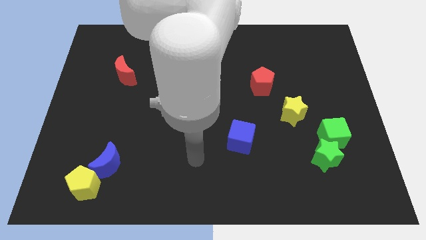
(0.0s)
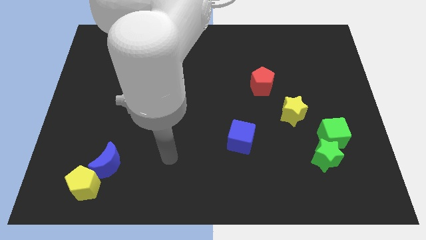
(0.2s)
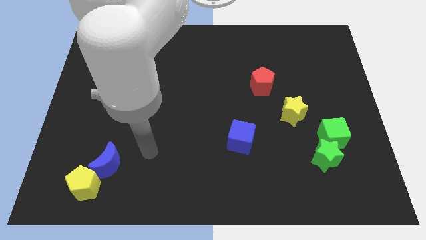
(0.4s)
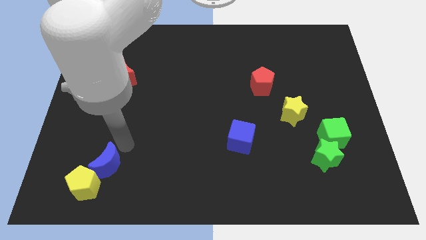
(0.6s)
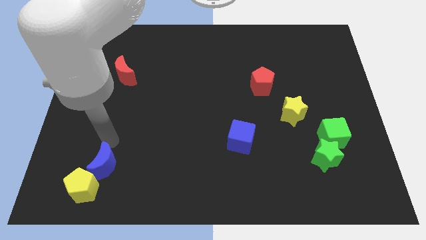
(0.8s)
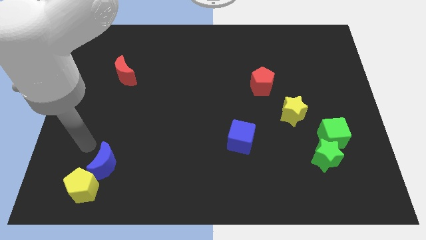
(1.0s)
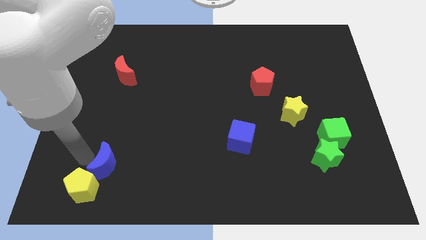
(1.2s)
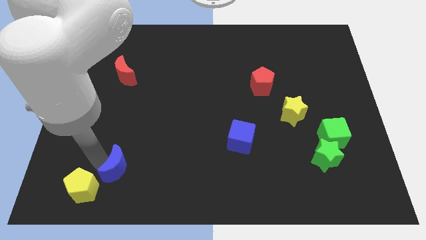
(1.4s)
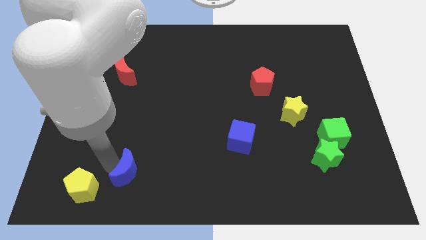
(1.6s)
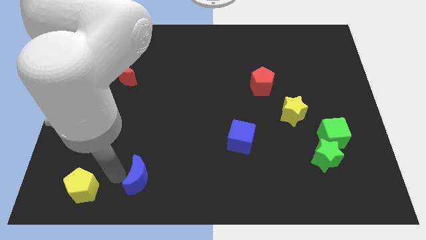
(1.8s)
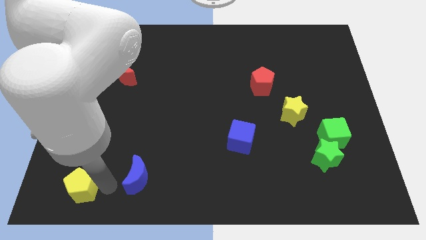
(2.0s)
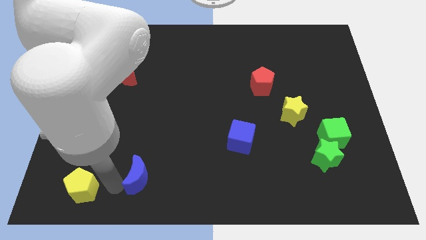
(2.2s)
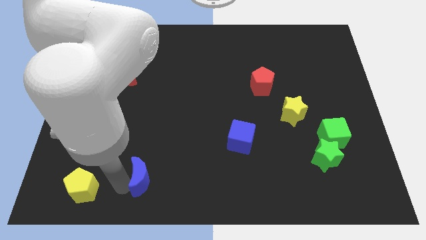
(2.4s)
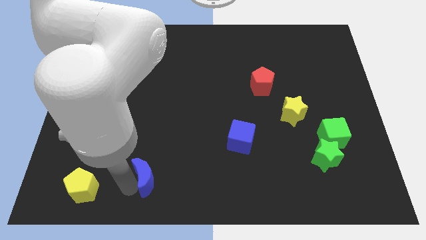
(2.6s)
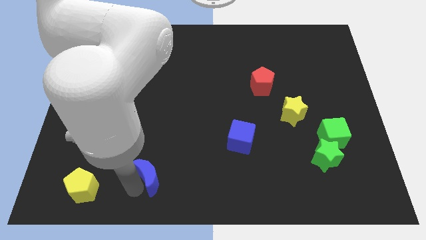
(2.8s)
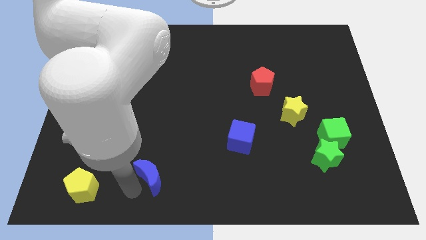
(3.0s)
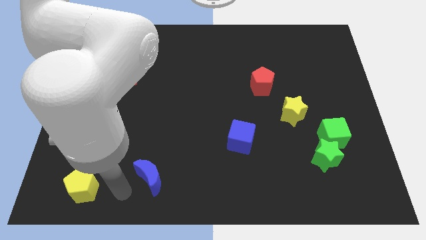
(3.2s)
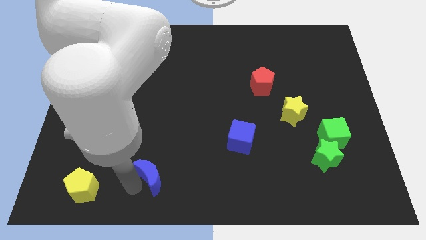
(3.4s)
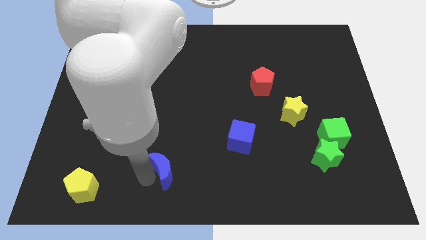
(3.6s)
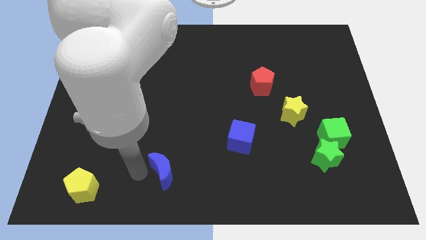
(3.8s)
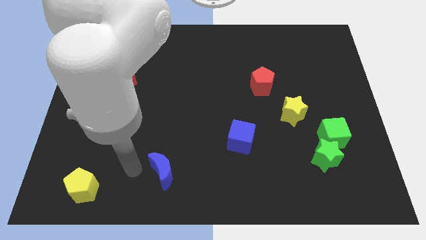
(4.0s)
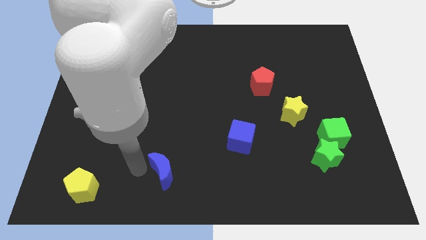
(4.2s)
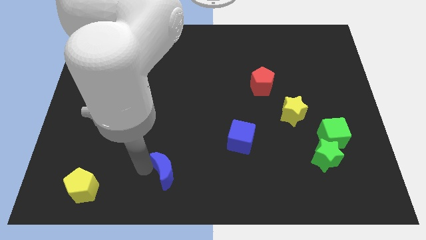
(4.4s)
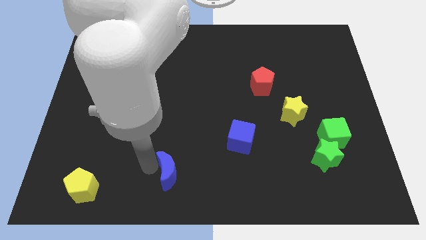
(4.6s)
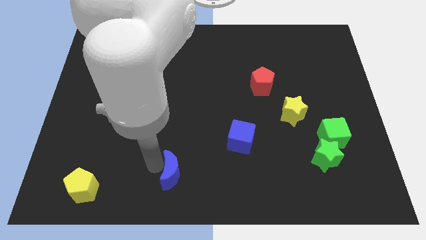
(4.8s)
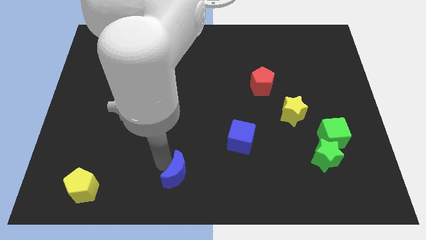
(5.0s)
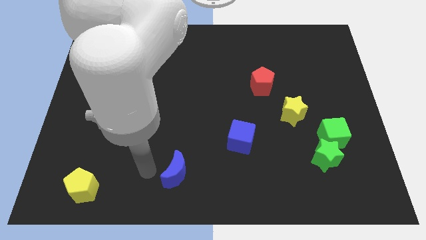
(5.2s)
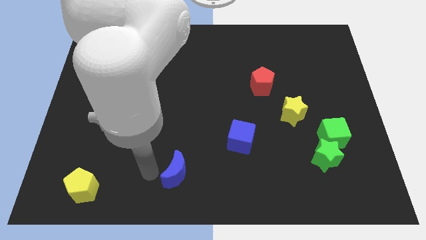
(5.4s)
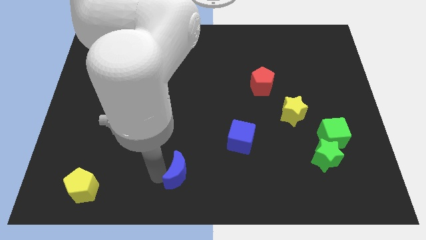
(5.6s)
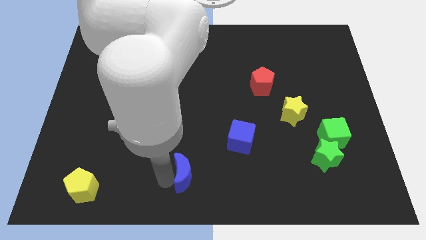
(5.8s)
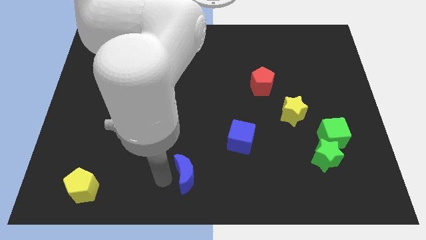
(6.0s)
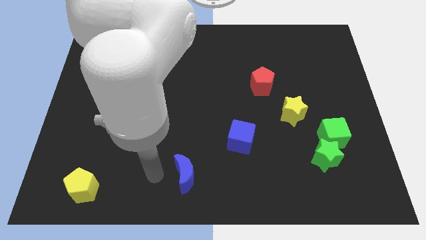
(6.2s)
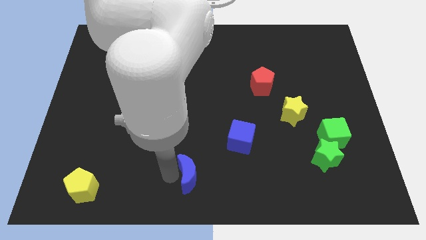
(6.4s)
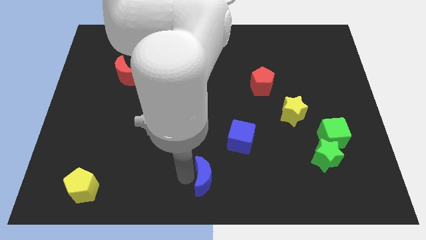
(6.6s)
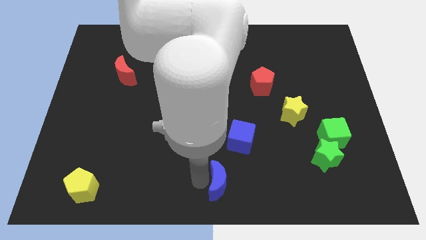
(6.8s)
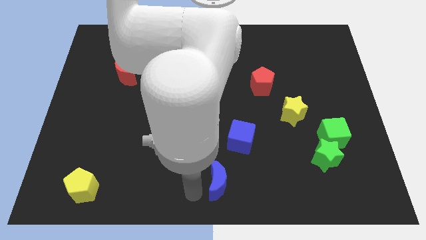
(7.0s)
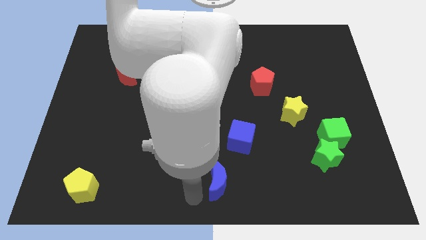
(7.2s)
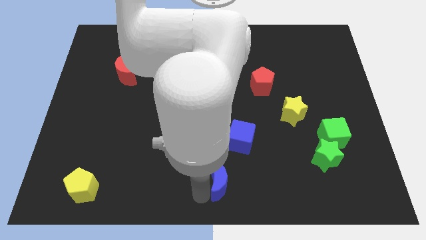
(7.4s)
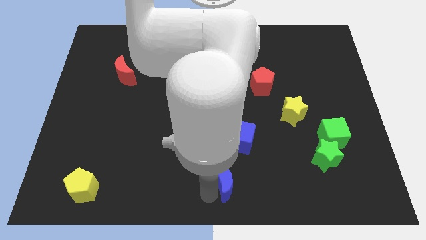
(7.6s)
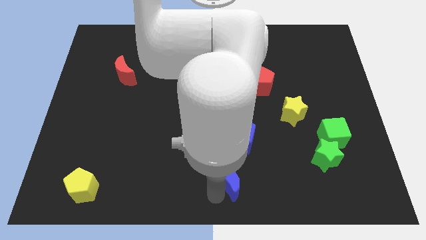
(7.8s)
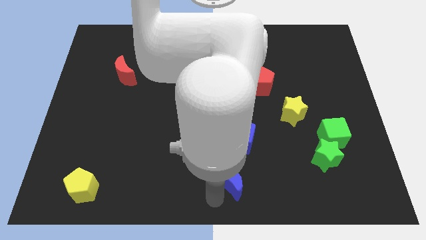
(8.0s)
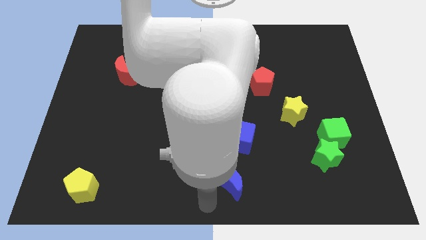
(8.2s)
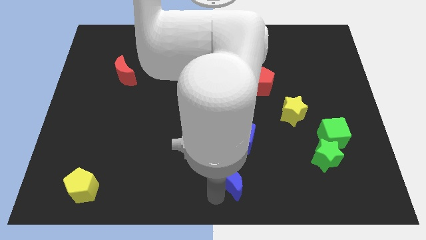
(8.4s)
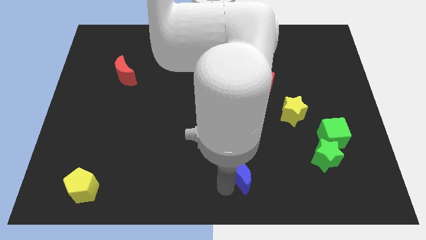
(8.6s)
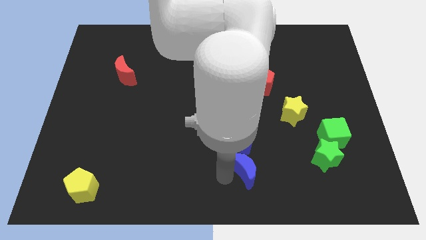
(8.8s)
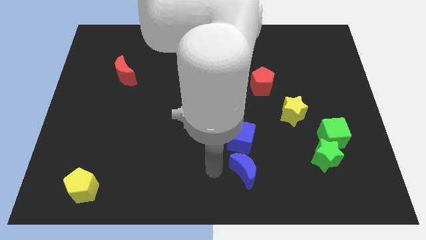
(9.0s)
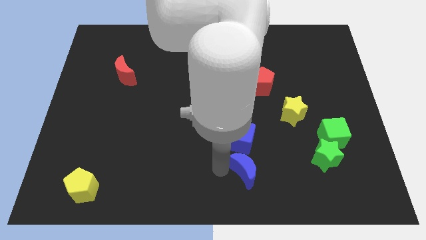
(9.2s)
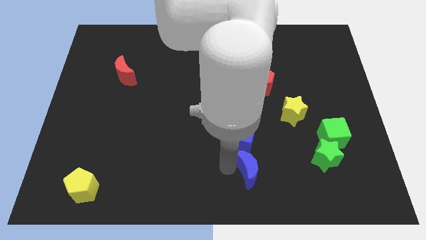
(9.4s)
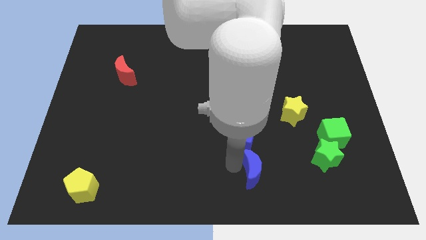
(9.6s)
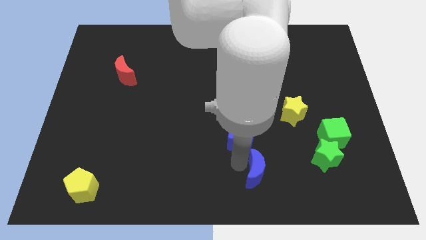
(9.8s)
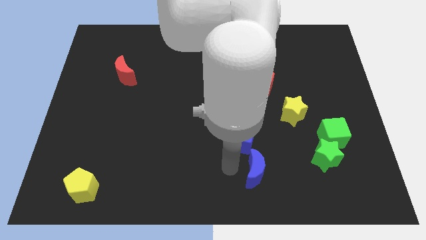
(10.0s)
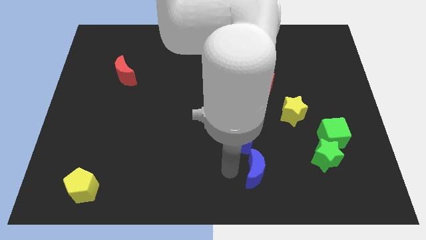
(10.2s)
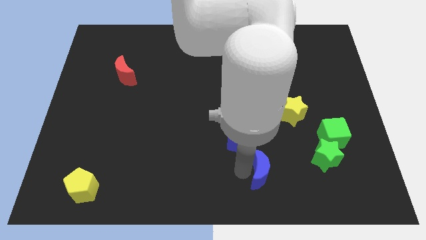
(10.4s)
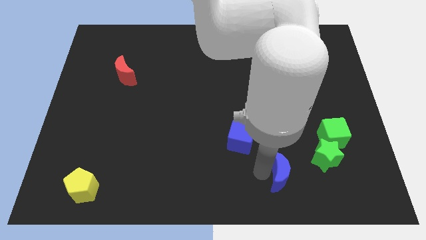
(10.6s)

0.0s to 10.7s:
slide the blue moon diagonally down and to the left of the green star

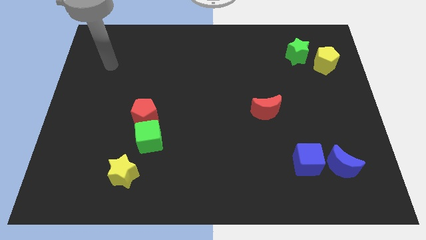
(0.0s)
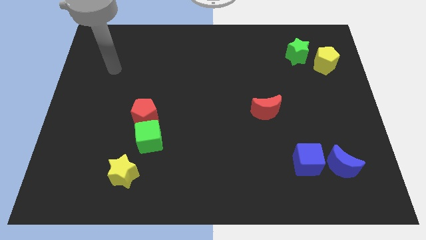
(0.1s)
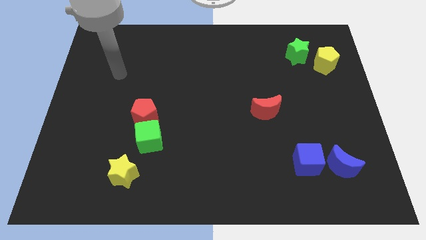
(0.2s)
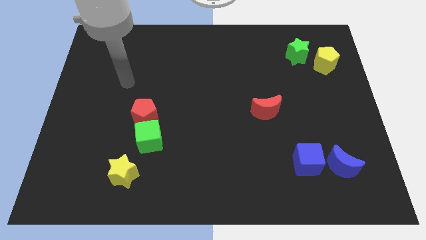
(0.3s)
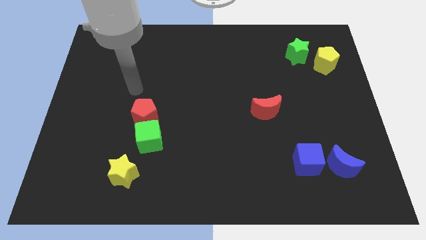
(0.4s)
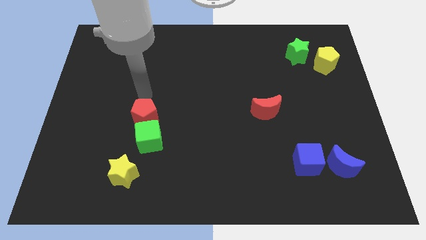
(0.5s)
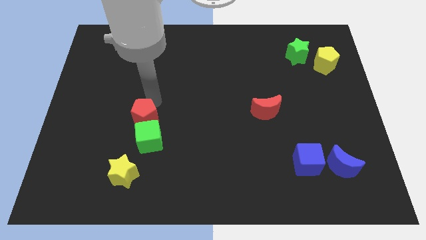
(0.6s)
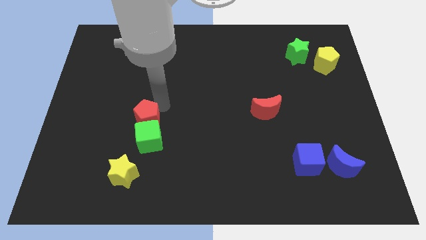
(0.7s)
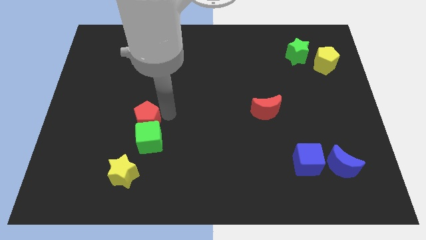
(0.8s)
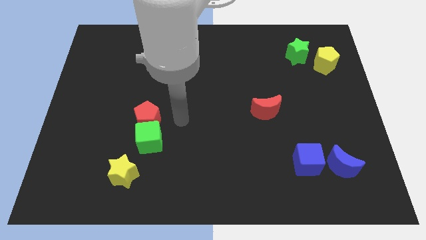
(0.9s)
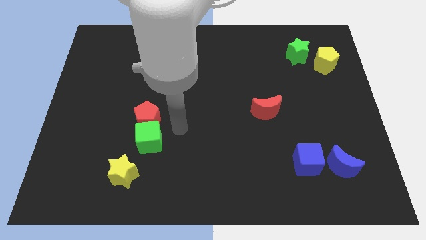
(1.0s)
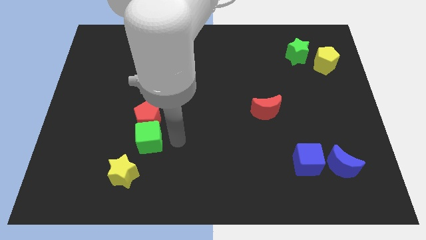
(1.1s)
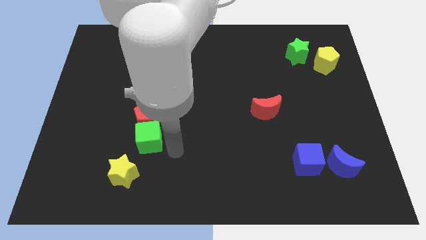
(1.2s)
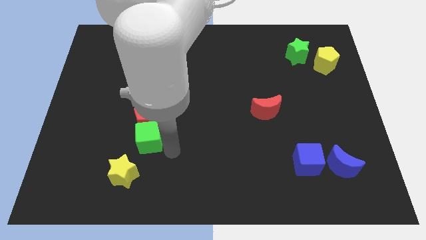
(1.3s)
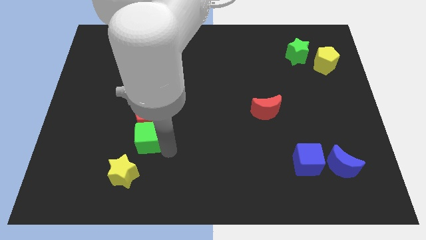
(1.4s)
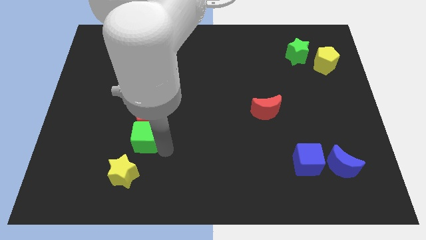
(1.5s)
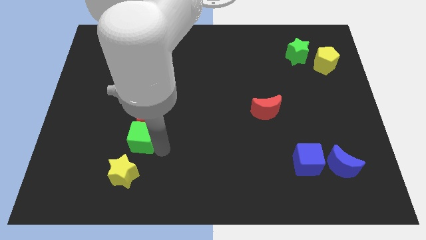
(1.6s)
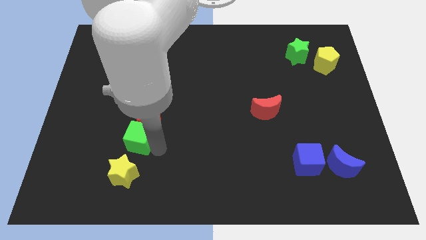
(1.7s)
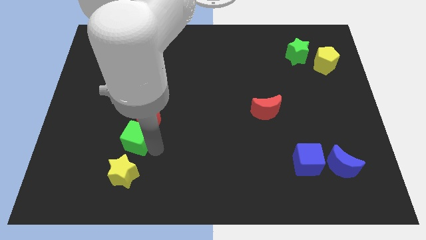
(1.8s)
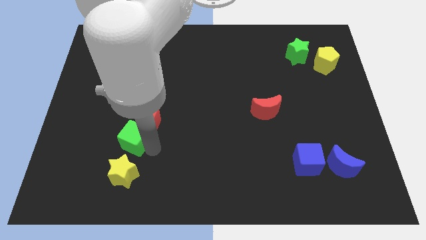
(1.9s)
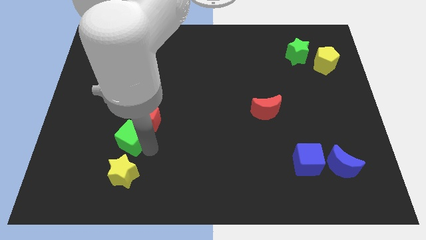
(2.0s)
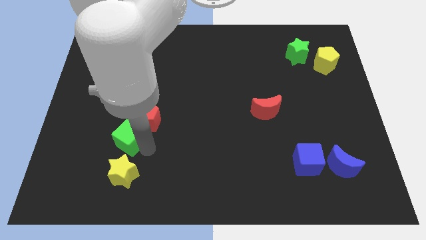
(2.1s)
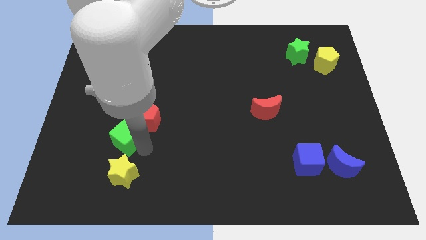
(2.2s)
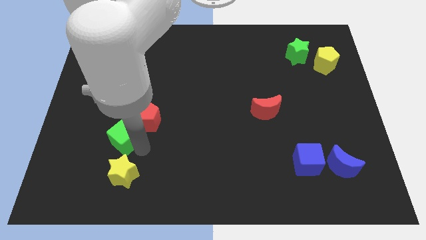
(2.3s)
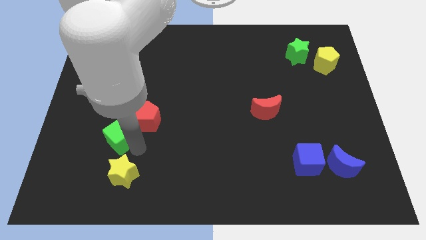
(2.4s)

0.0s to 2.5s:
push the green cube left of the red pentagon
